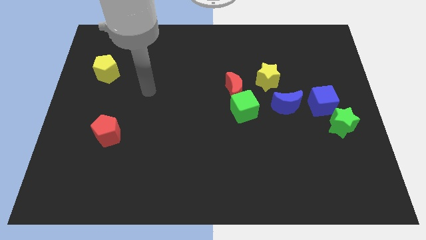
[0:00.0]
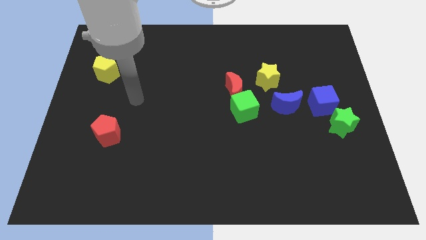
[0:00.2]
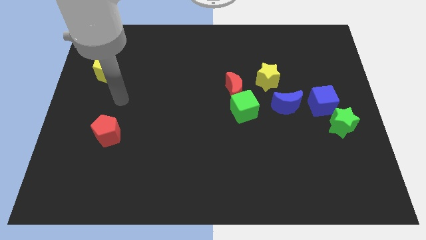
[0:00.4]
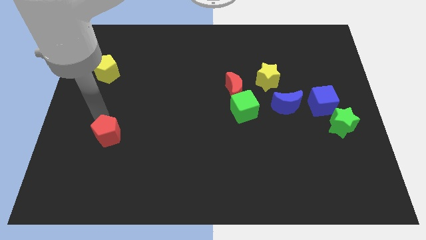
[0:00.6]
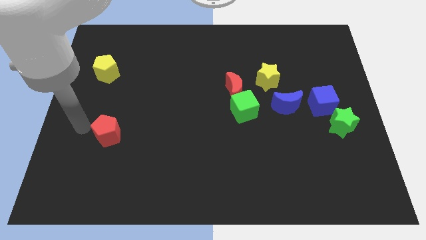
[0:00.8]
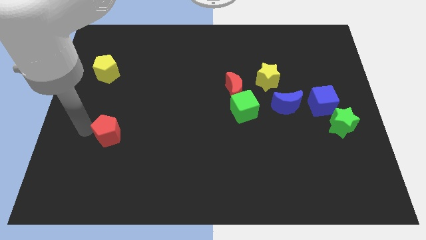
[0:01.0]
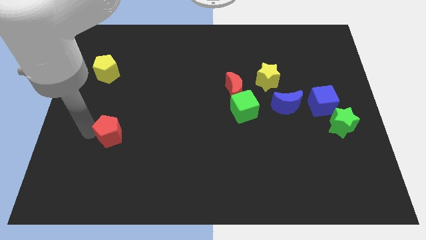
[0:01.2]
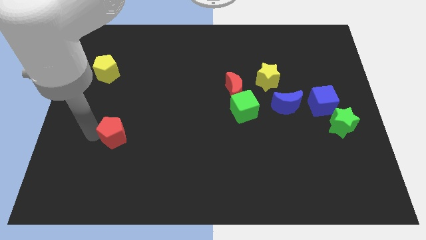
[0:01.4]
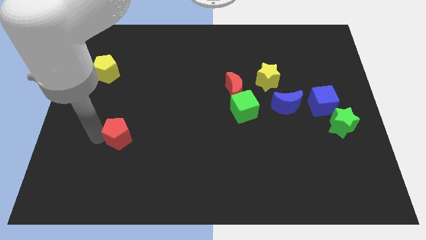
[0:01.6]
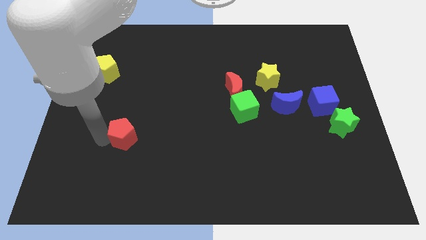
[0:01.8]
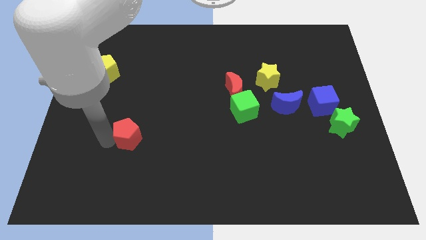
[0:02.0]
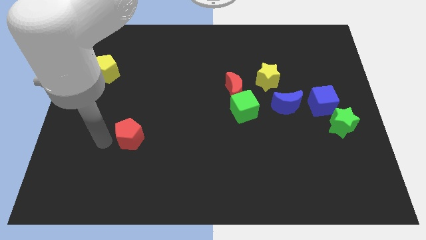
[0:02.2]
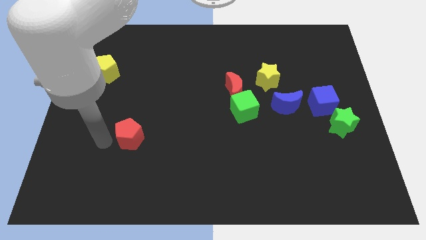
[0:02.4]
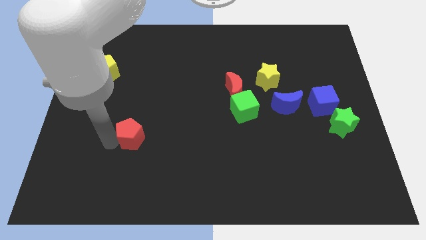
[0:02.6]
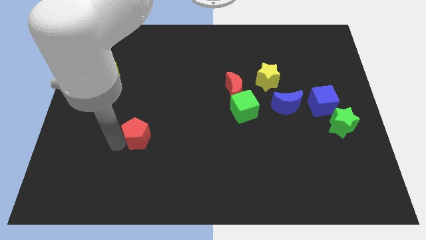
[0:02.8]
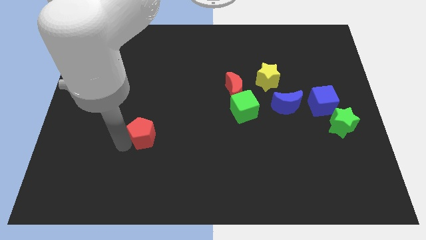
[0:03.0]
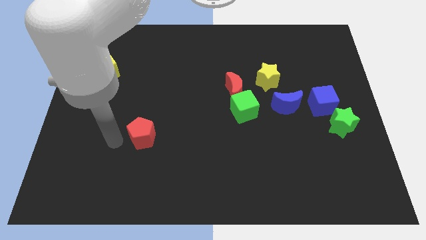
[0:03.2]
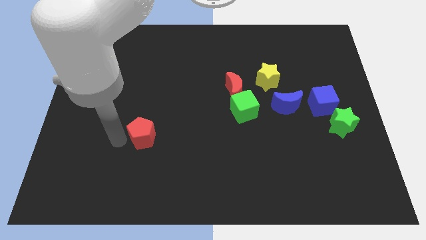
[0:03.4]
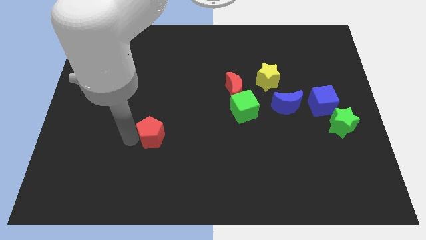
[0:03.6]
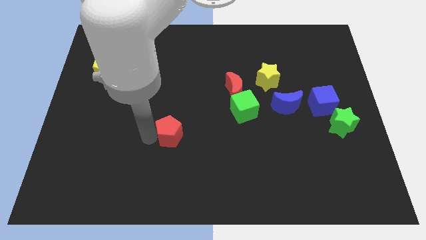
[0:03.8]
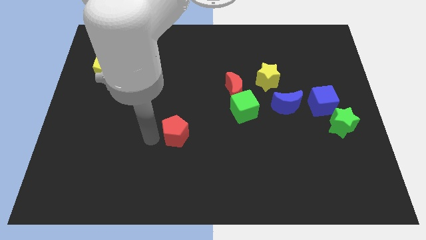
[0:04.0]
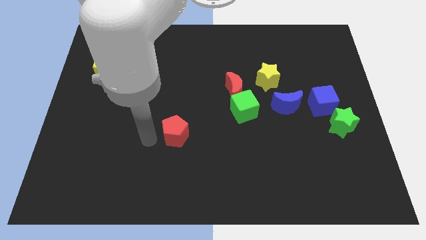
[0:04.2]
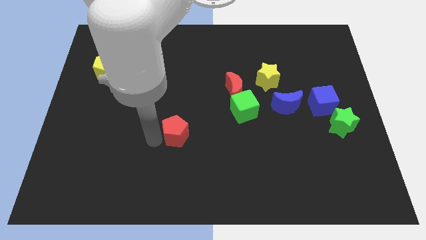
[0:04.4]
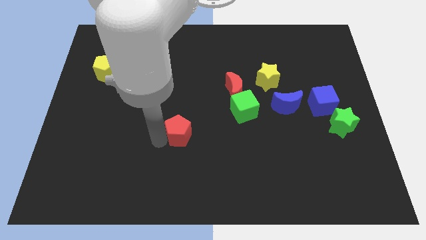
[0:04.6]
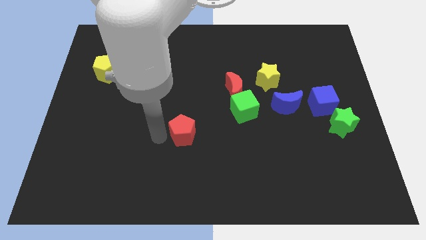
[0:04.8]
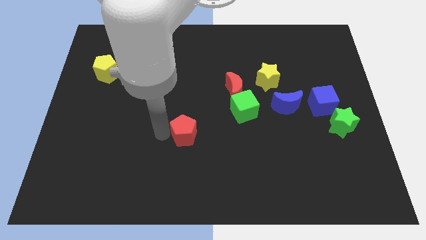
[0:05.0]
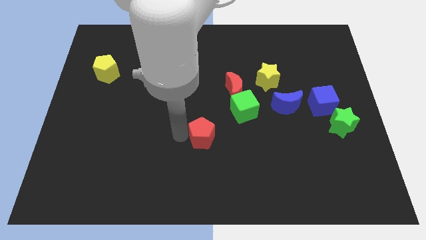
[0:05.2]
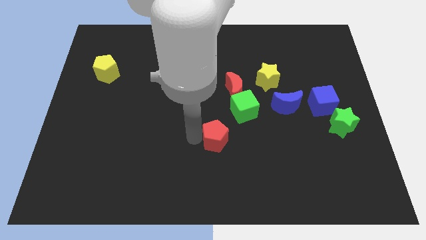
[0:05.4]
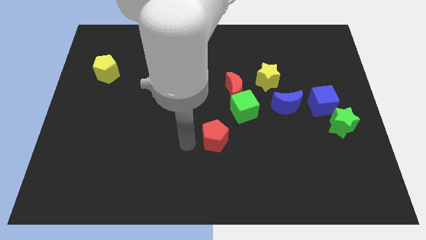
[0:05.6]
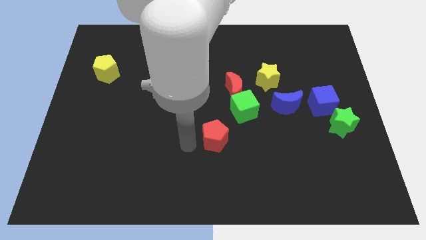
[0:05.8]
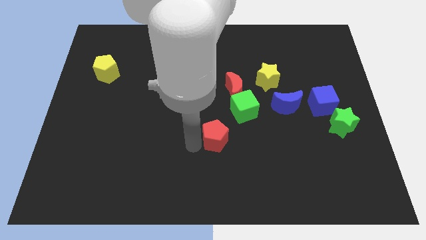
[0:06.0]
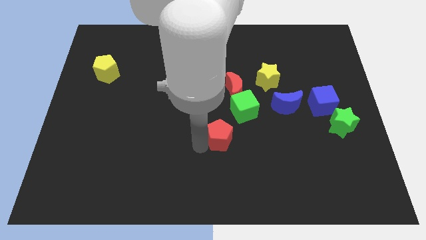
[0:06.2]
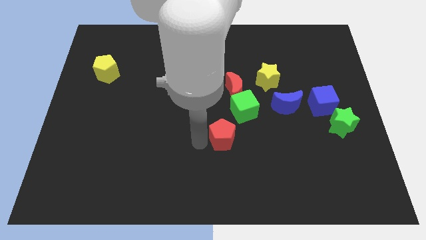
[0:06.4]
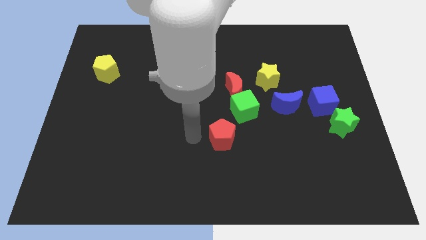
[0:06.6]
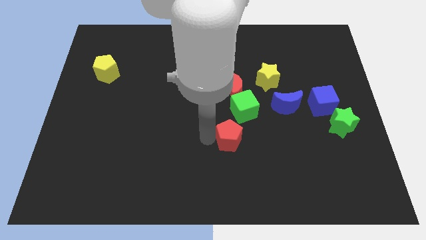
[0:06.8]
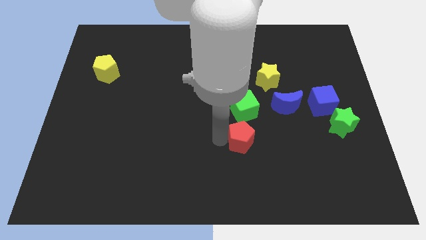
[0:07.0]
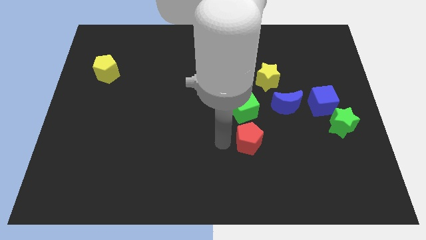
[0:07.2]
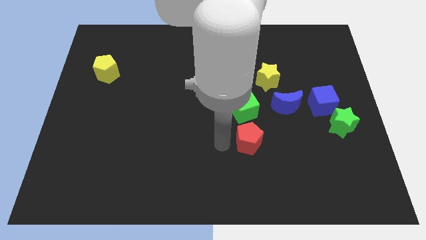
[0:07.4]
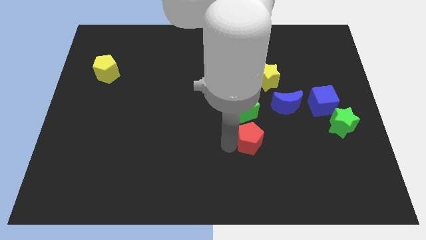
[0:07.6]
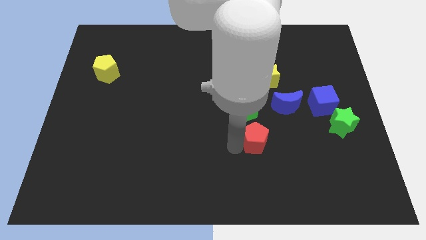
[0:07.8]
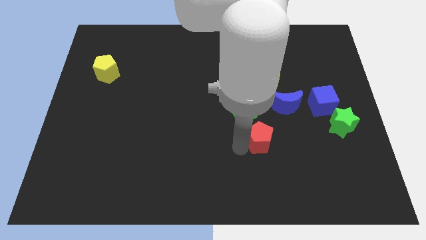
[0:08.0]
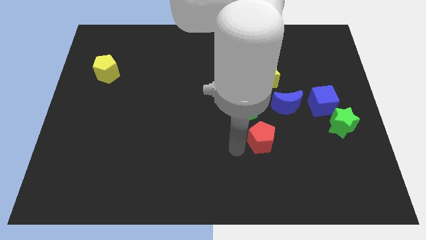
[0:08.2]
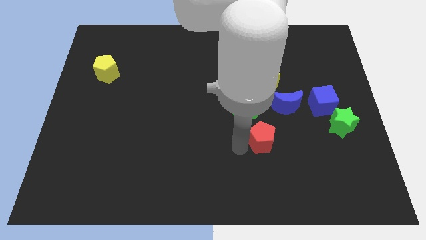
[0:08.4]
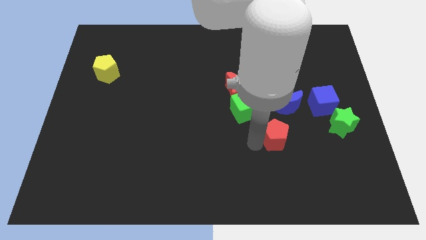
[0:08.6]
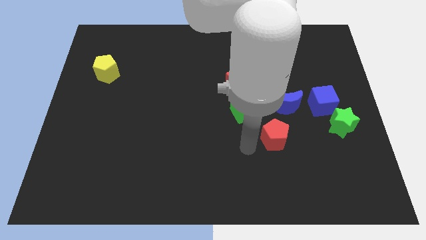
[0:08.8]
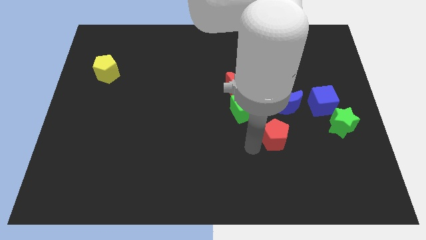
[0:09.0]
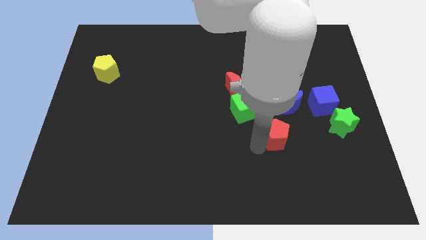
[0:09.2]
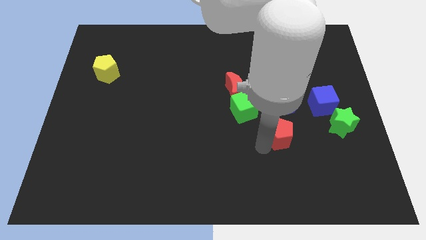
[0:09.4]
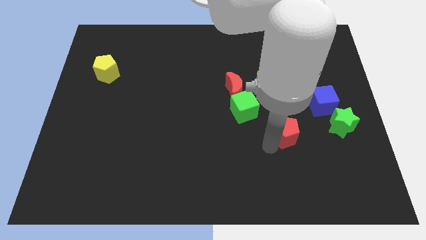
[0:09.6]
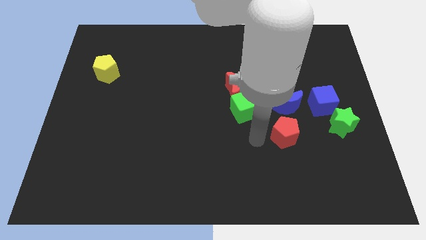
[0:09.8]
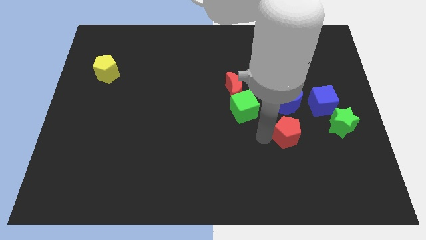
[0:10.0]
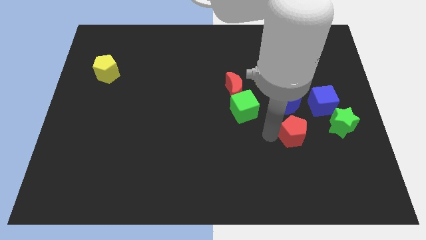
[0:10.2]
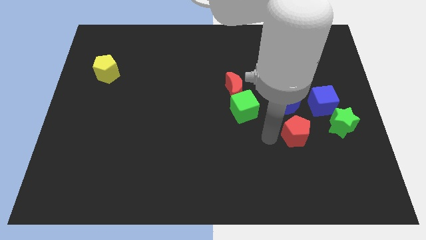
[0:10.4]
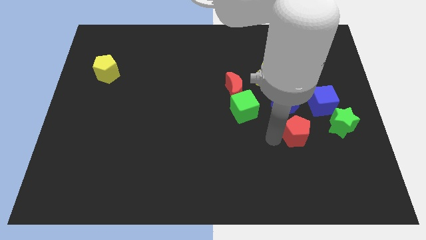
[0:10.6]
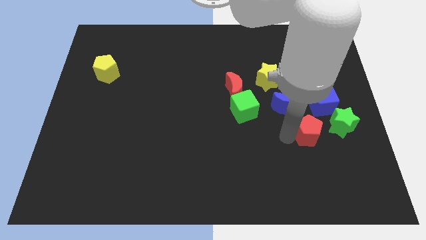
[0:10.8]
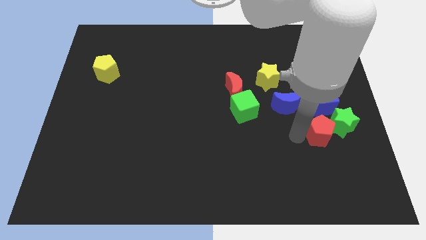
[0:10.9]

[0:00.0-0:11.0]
put the red pentagon to the green star

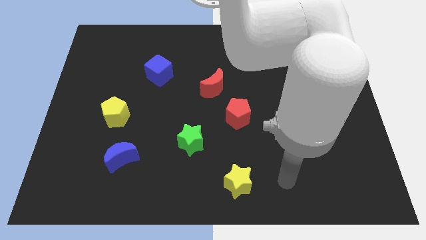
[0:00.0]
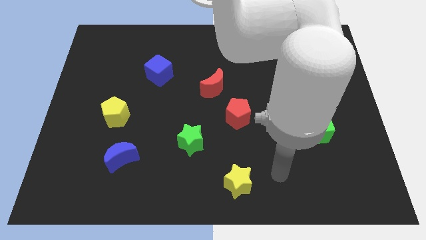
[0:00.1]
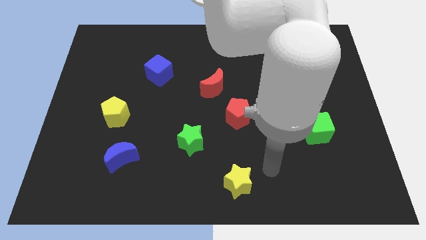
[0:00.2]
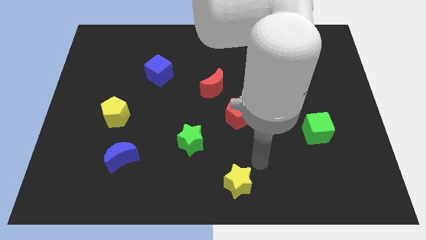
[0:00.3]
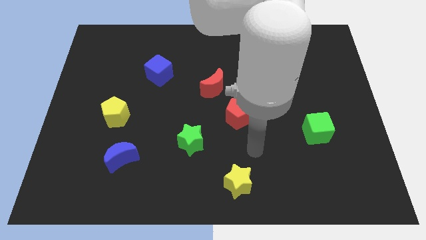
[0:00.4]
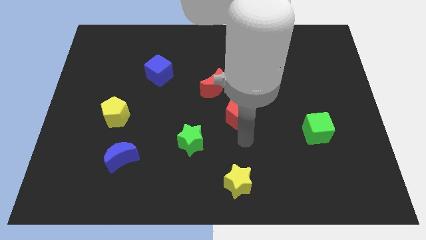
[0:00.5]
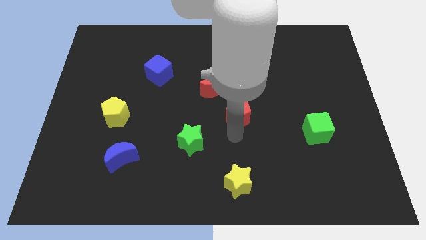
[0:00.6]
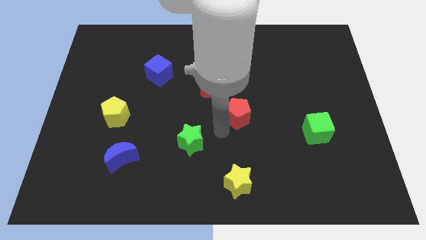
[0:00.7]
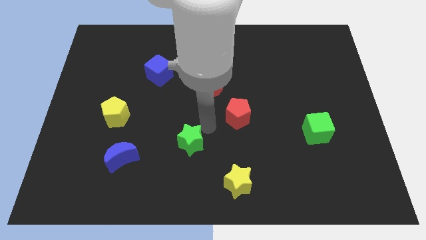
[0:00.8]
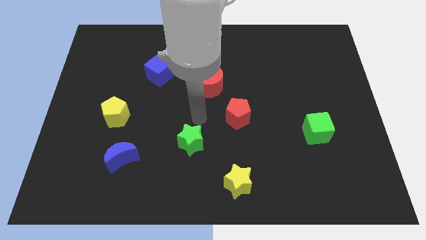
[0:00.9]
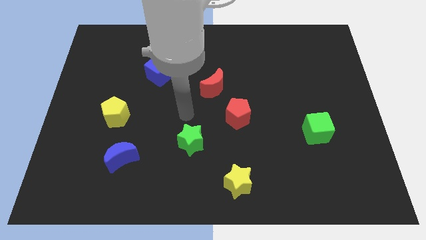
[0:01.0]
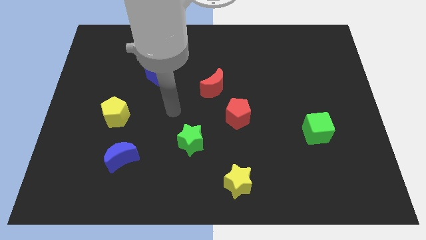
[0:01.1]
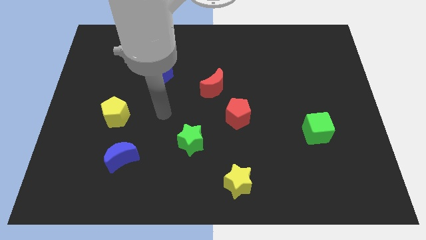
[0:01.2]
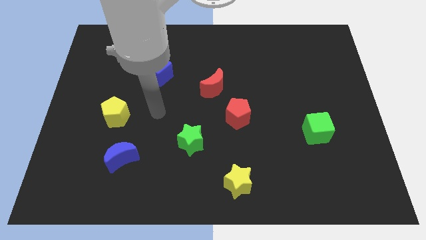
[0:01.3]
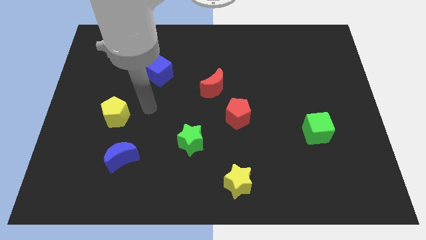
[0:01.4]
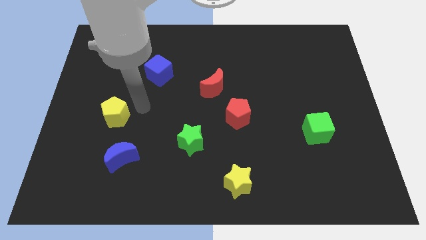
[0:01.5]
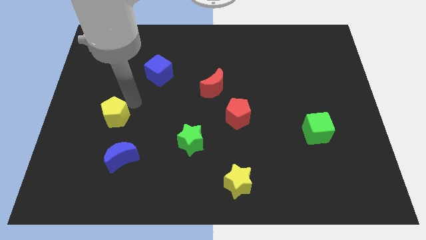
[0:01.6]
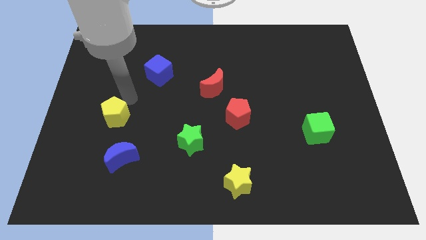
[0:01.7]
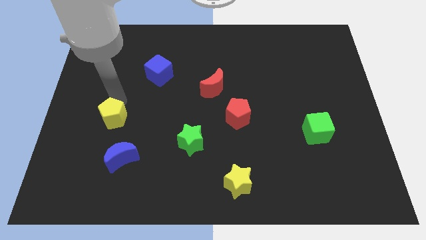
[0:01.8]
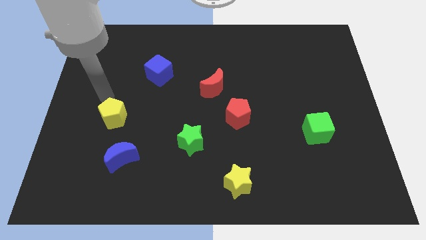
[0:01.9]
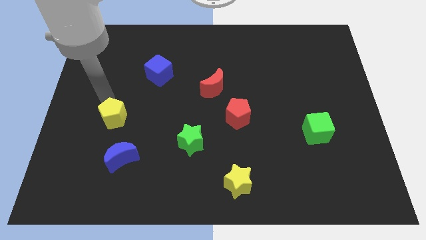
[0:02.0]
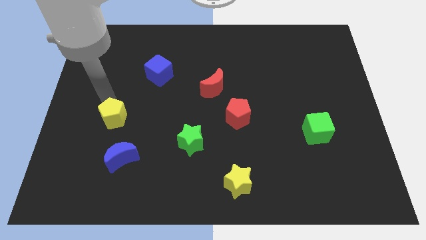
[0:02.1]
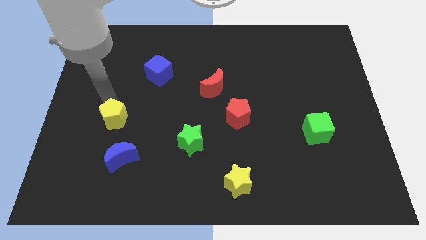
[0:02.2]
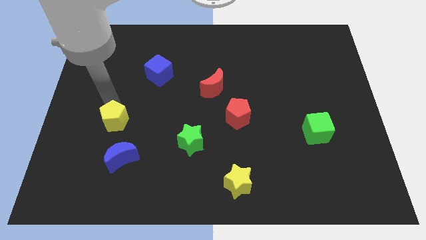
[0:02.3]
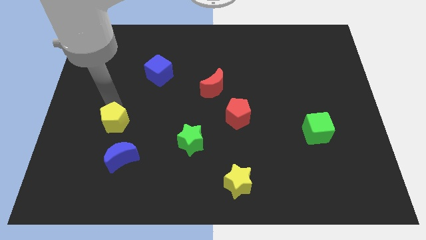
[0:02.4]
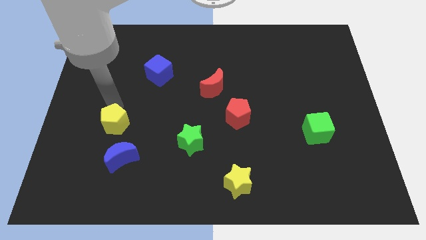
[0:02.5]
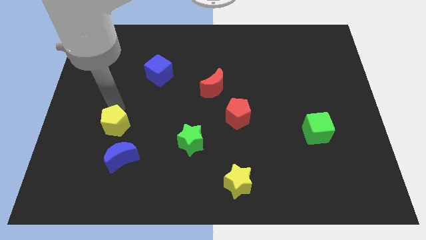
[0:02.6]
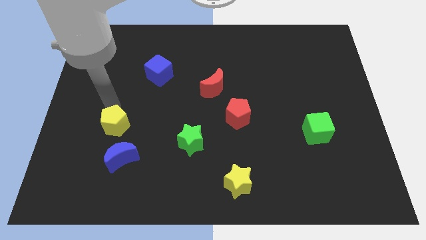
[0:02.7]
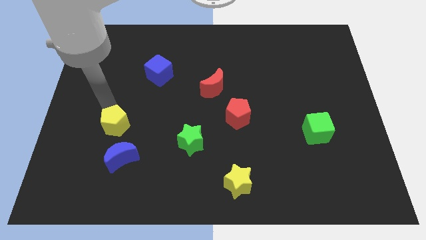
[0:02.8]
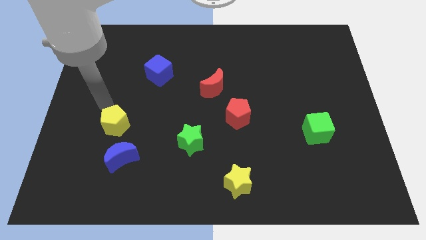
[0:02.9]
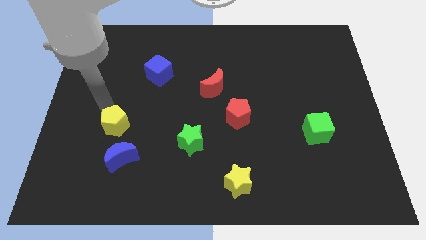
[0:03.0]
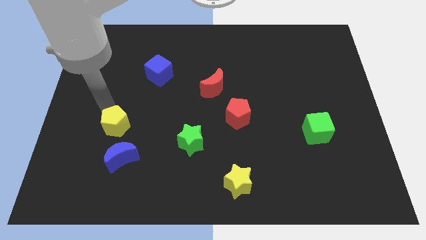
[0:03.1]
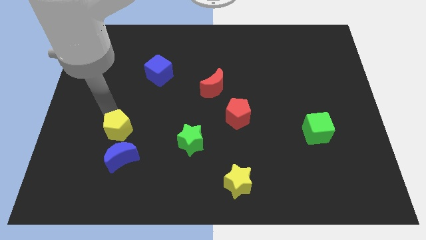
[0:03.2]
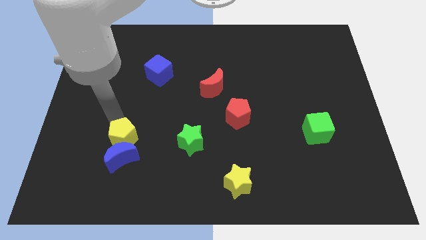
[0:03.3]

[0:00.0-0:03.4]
slide the yellow pentagon next to the blue moon
